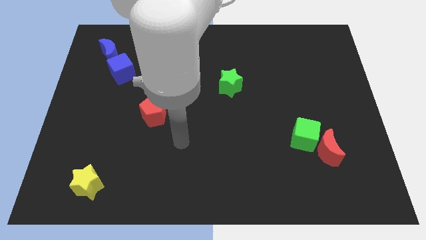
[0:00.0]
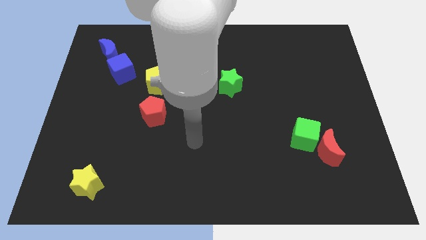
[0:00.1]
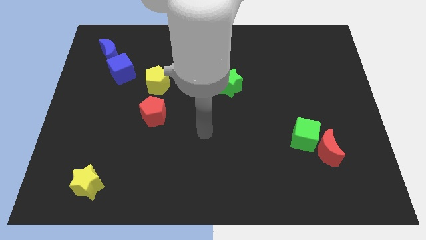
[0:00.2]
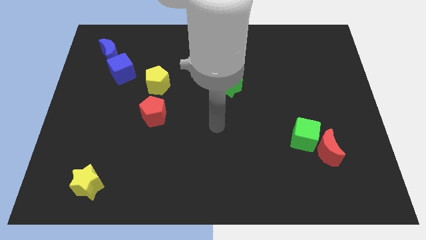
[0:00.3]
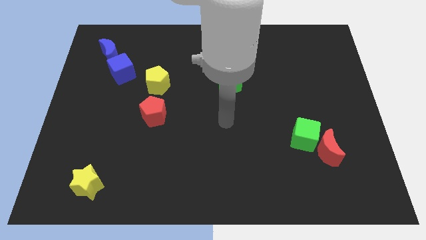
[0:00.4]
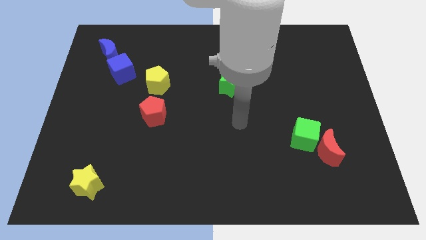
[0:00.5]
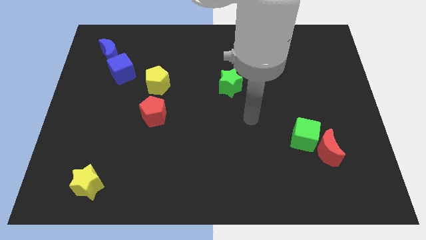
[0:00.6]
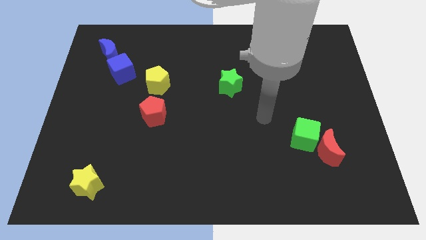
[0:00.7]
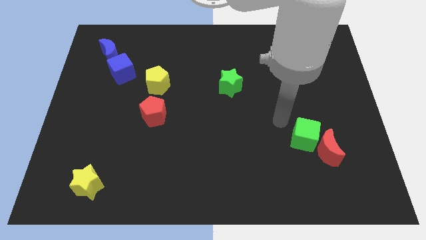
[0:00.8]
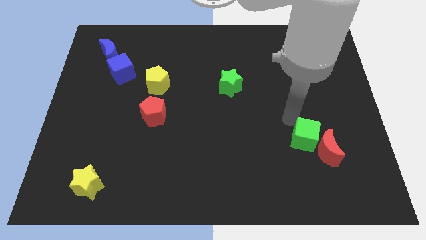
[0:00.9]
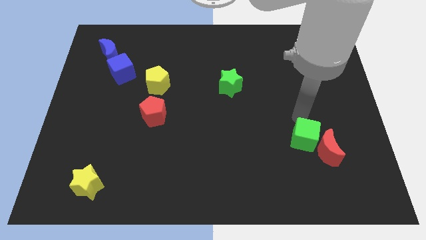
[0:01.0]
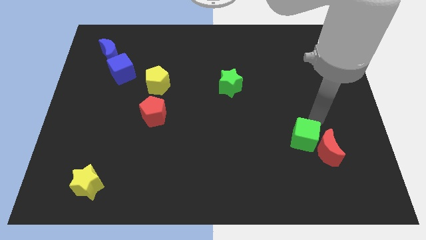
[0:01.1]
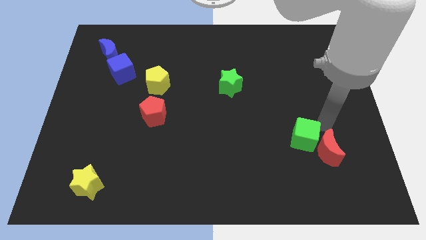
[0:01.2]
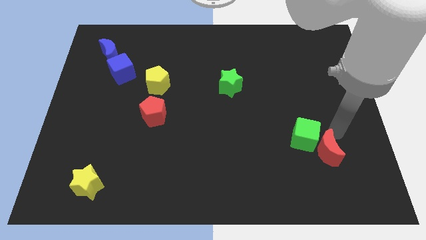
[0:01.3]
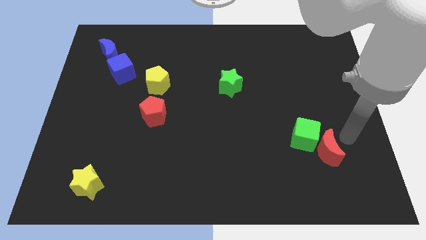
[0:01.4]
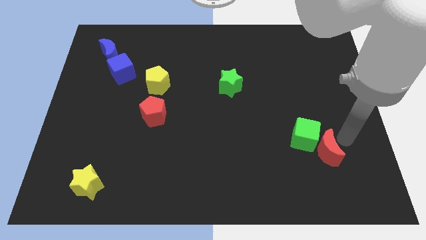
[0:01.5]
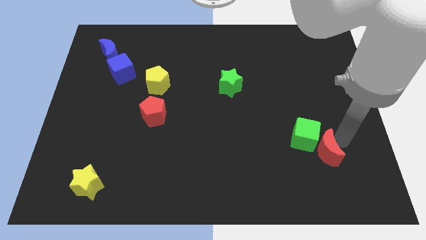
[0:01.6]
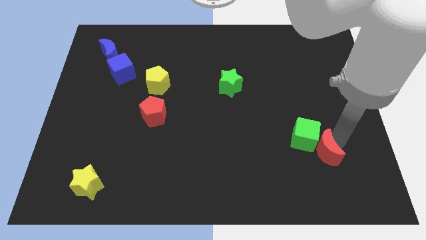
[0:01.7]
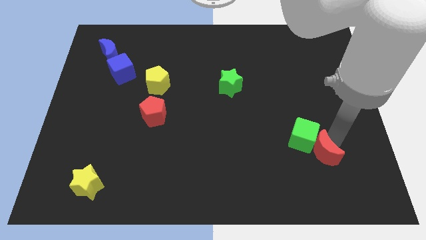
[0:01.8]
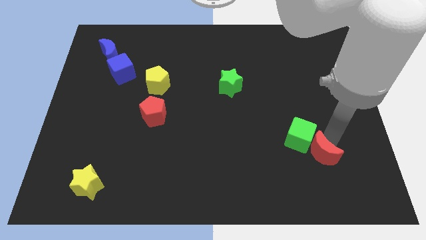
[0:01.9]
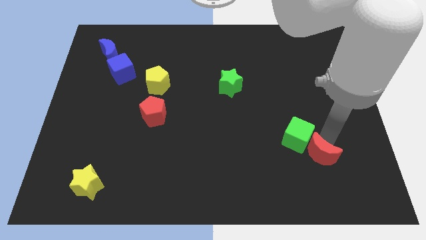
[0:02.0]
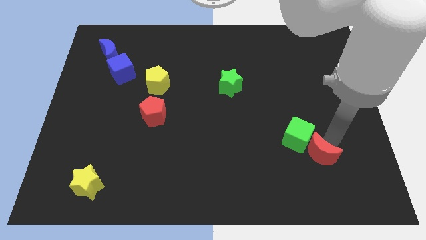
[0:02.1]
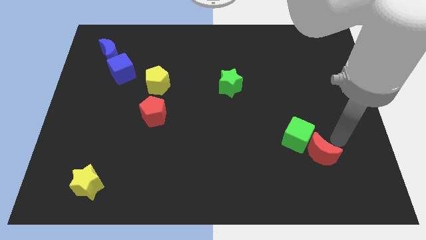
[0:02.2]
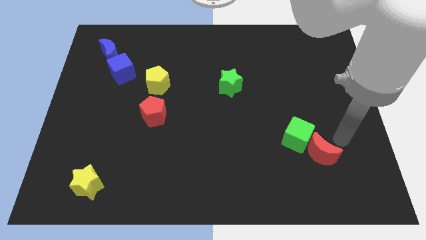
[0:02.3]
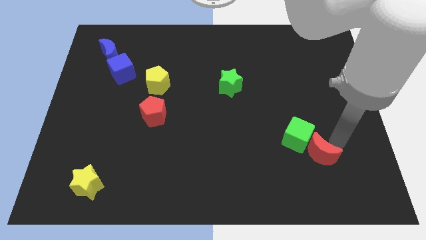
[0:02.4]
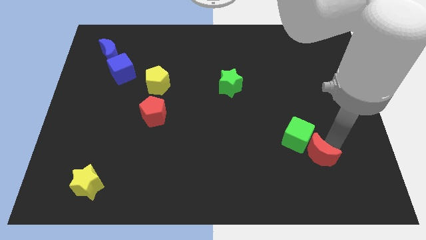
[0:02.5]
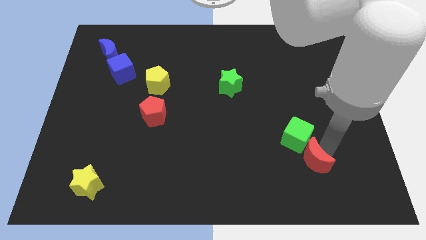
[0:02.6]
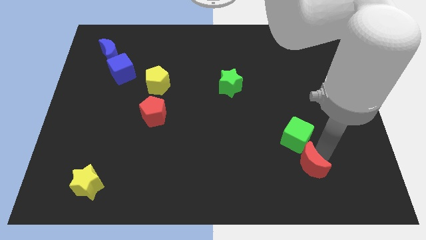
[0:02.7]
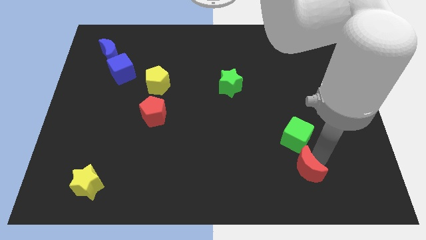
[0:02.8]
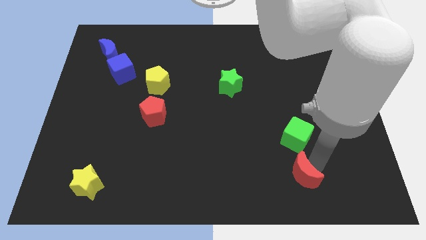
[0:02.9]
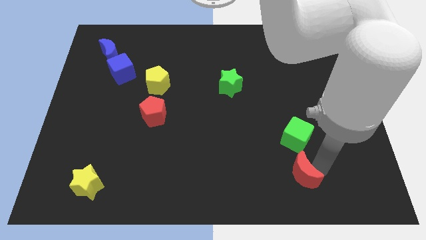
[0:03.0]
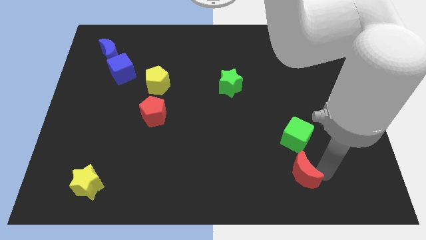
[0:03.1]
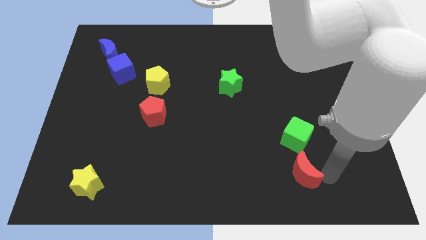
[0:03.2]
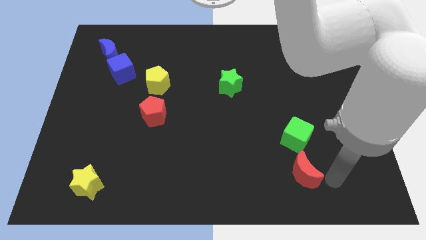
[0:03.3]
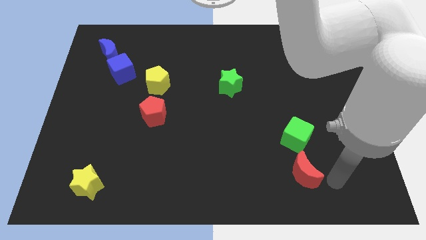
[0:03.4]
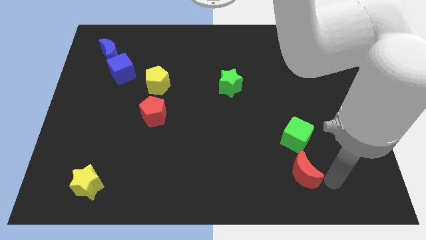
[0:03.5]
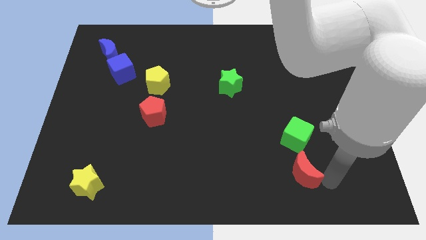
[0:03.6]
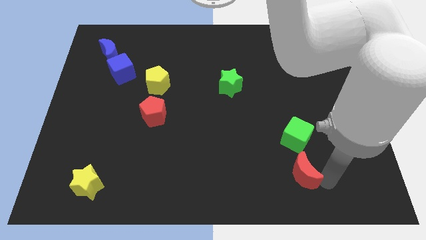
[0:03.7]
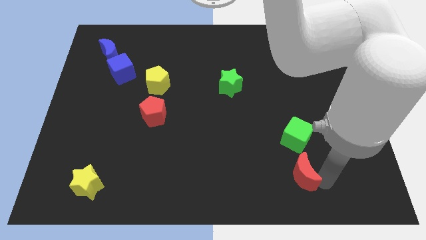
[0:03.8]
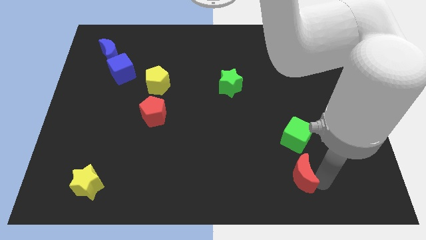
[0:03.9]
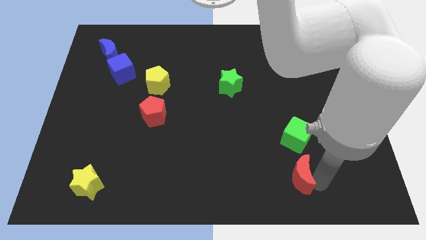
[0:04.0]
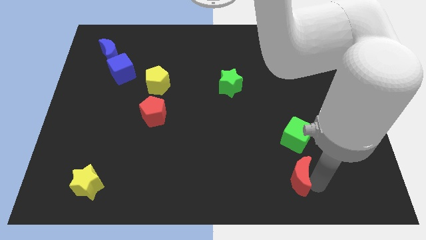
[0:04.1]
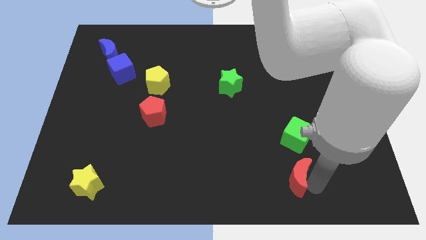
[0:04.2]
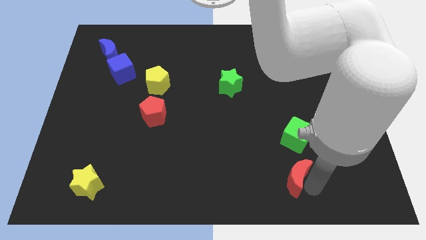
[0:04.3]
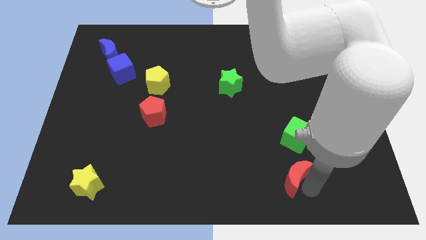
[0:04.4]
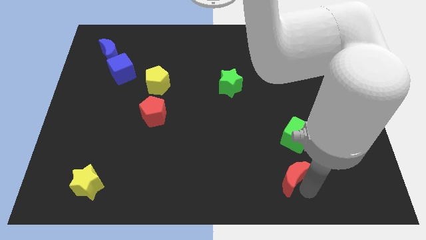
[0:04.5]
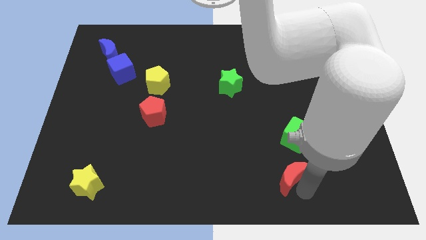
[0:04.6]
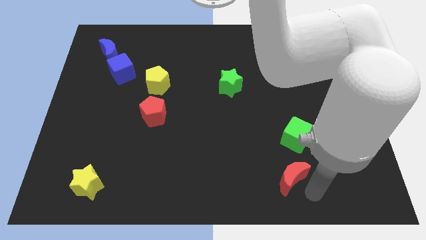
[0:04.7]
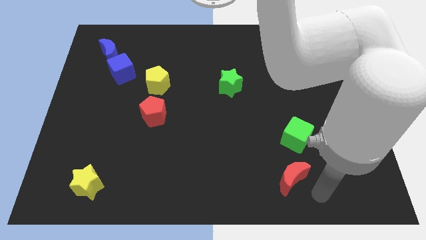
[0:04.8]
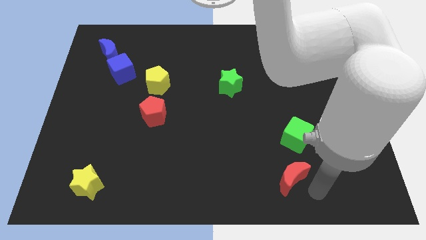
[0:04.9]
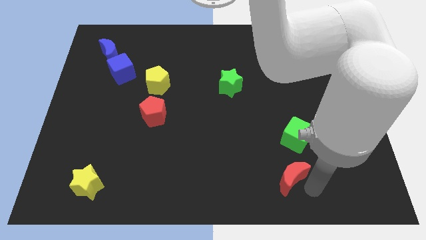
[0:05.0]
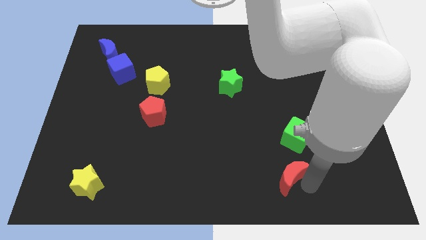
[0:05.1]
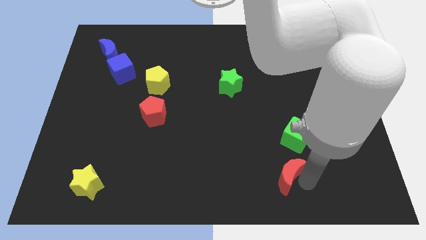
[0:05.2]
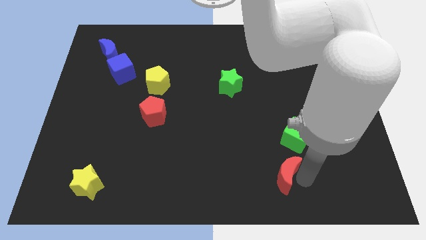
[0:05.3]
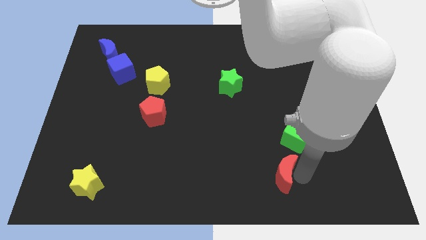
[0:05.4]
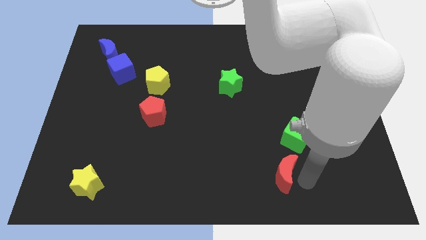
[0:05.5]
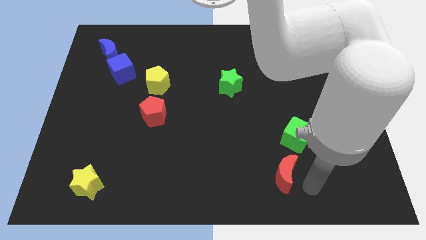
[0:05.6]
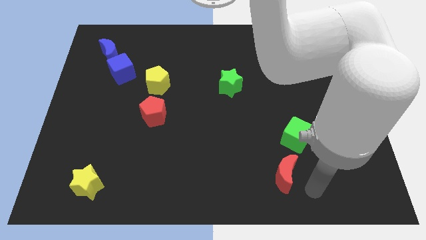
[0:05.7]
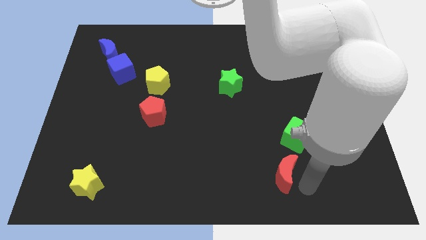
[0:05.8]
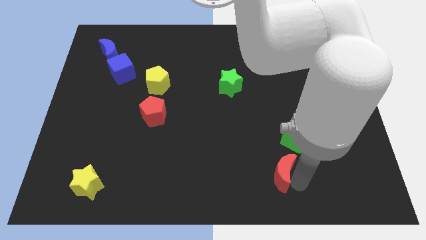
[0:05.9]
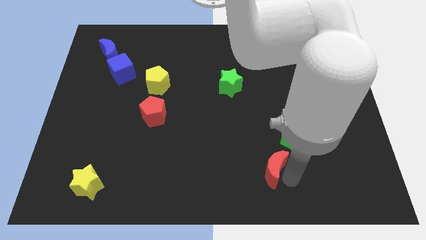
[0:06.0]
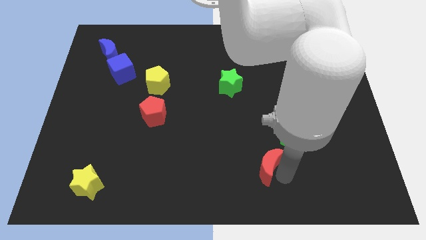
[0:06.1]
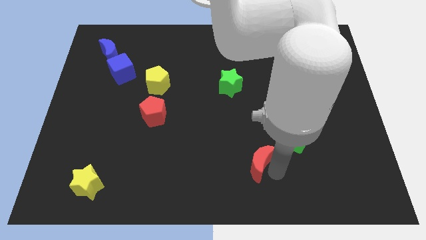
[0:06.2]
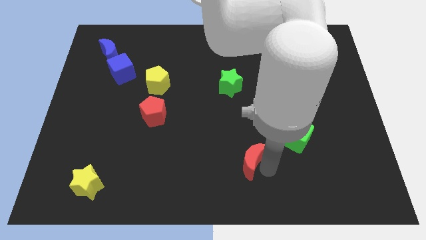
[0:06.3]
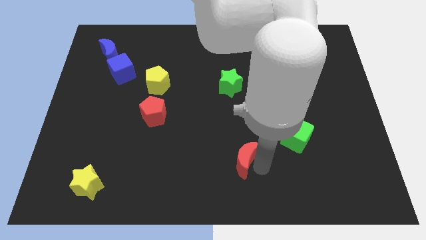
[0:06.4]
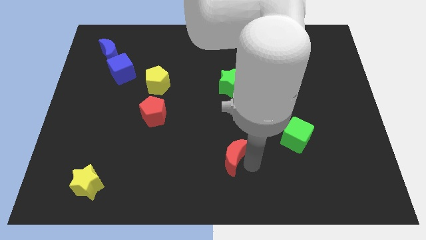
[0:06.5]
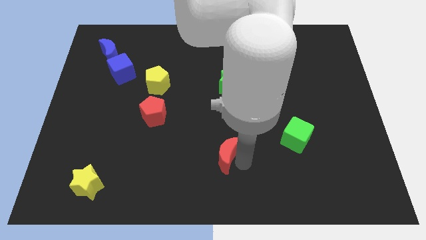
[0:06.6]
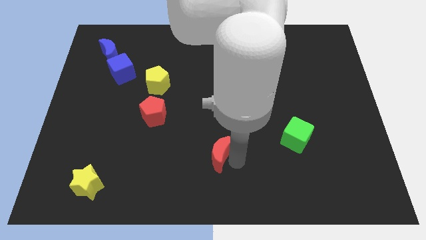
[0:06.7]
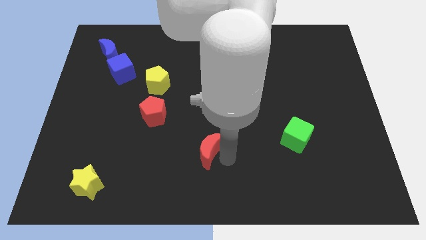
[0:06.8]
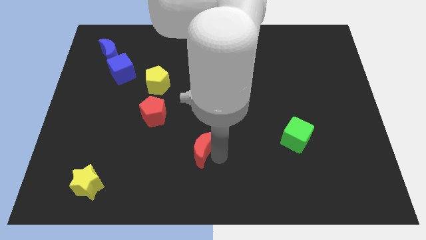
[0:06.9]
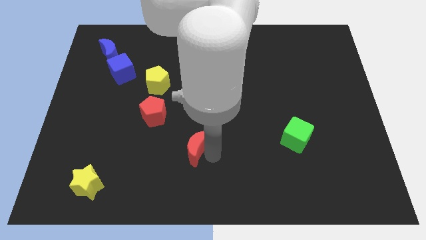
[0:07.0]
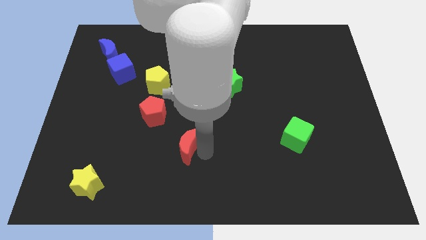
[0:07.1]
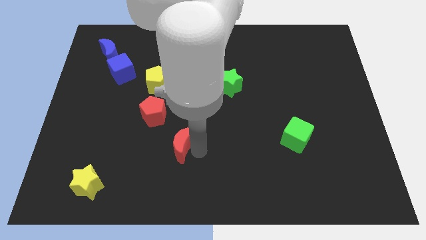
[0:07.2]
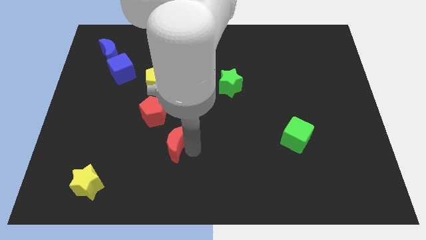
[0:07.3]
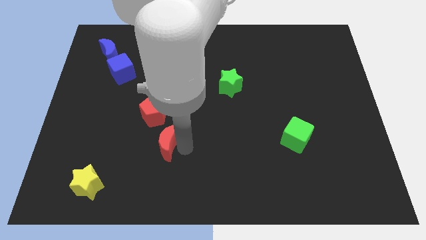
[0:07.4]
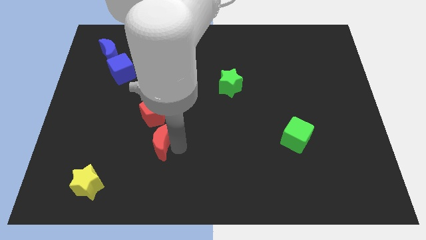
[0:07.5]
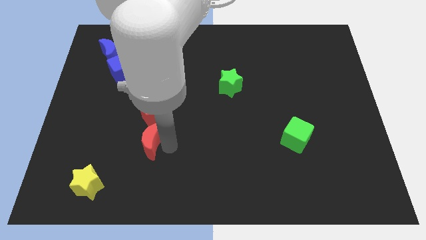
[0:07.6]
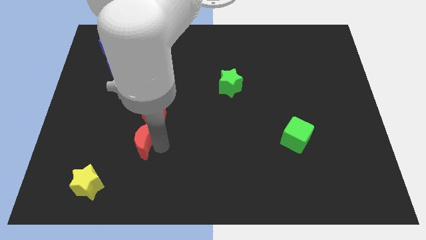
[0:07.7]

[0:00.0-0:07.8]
move the red moon to the bottom left of the red pentagon
